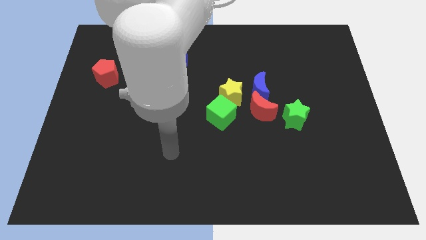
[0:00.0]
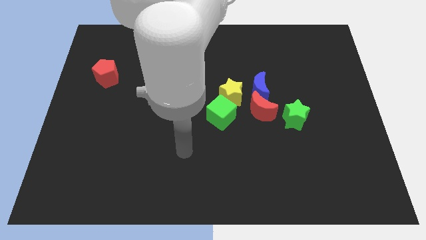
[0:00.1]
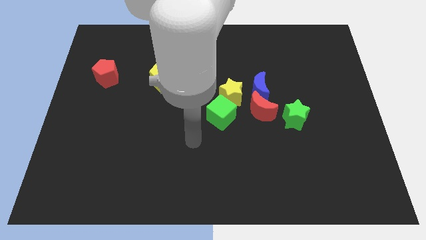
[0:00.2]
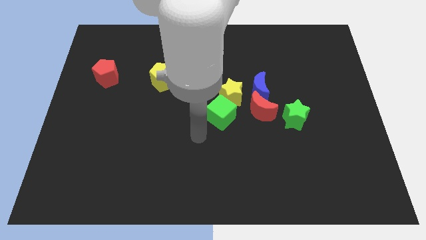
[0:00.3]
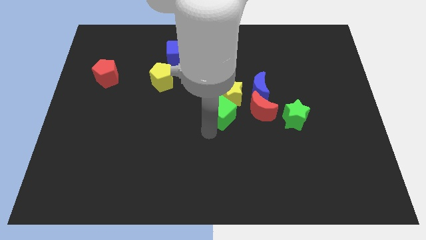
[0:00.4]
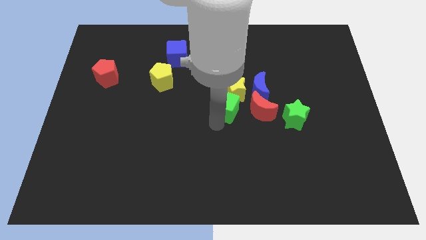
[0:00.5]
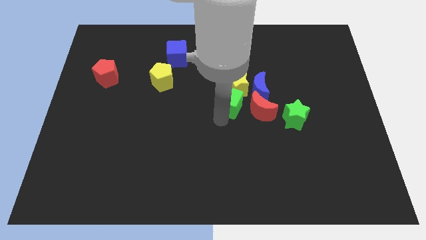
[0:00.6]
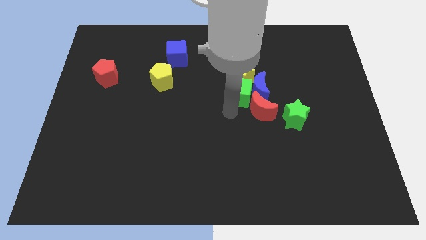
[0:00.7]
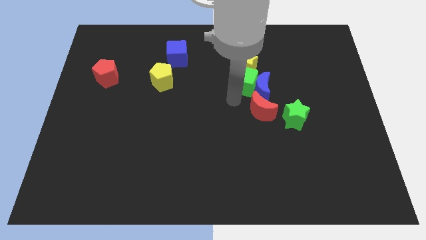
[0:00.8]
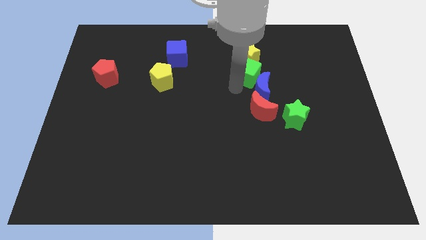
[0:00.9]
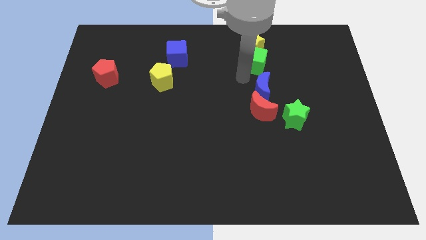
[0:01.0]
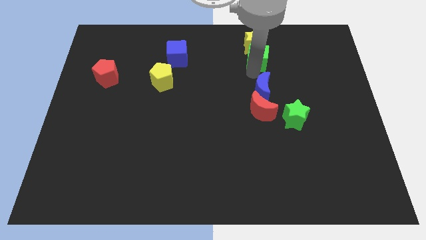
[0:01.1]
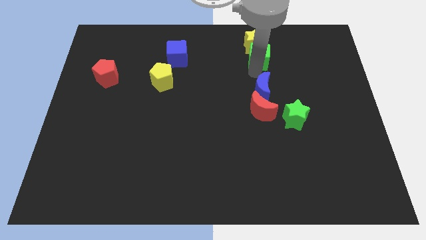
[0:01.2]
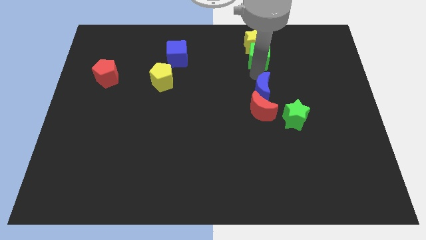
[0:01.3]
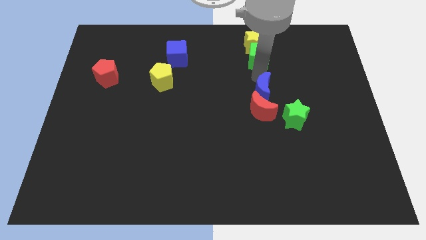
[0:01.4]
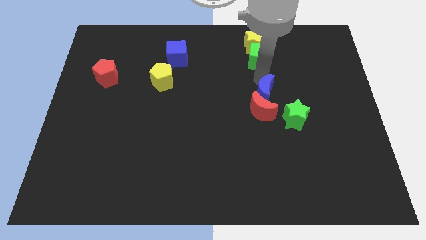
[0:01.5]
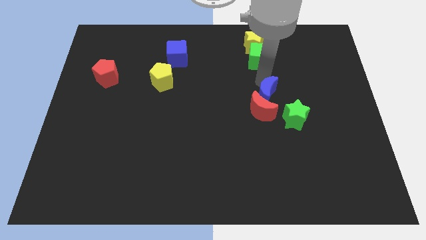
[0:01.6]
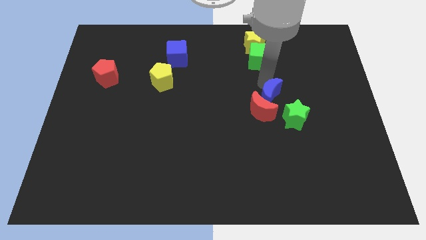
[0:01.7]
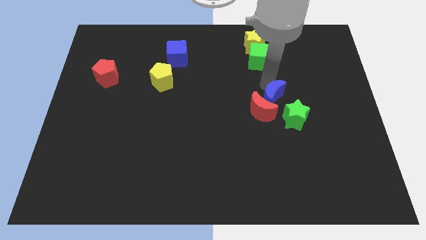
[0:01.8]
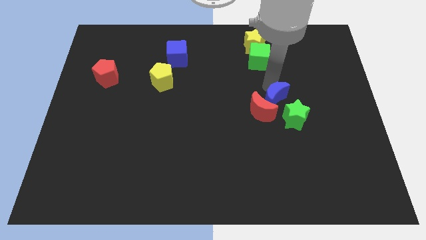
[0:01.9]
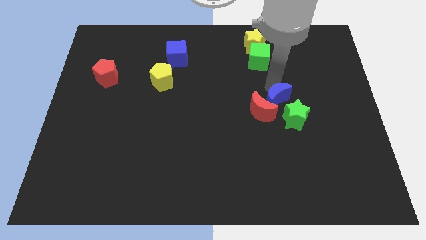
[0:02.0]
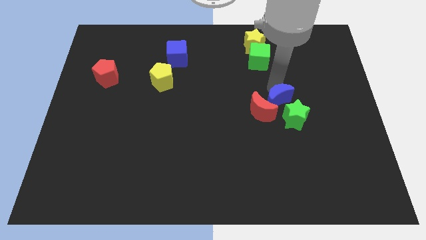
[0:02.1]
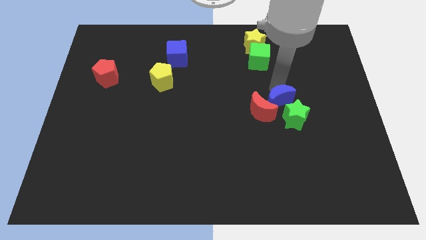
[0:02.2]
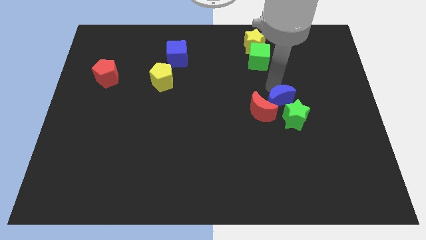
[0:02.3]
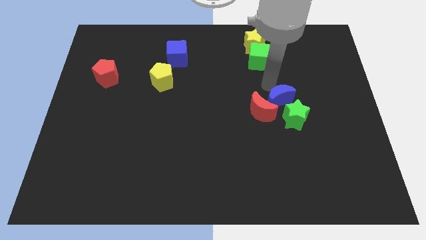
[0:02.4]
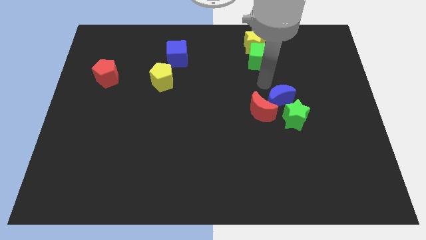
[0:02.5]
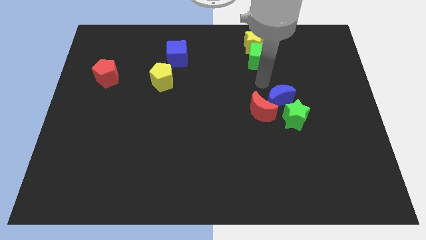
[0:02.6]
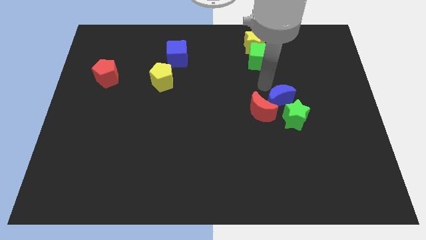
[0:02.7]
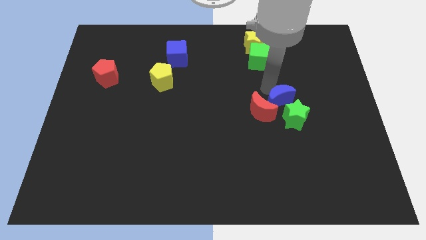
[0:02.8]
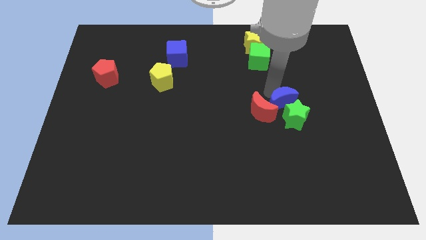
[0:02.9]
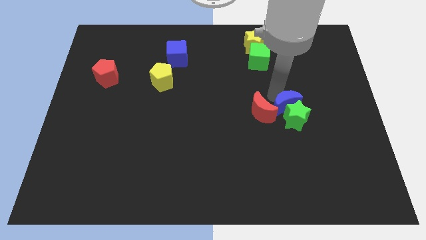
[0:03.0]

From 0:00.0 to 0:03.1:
move the blue moon away from the red moon and yellow star

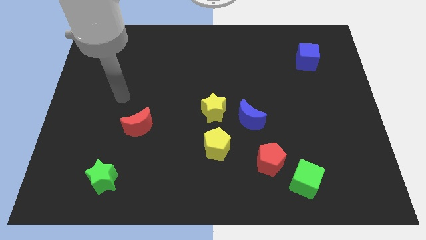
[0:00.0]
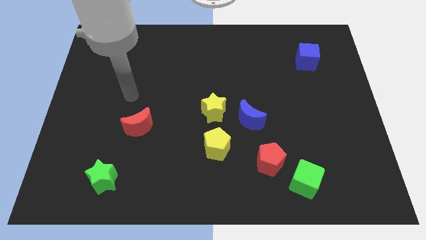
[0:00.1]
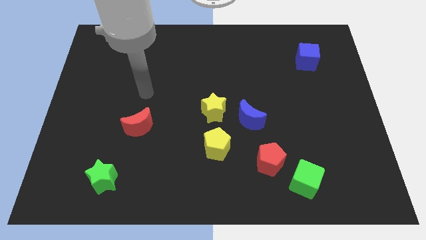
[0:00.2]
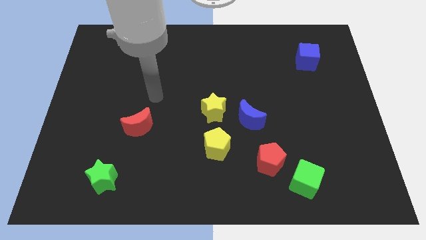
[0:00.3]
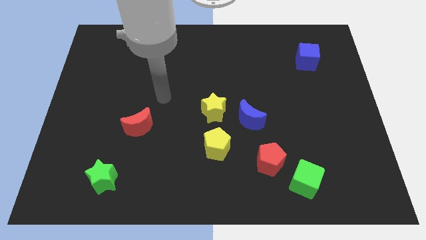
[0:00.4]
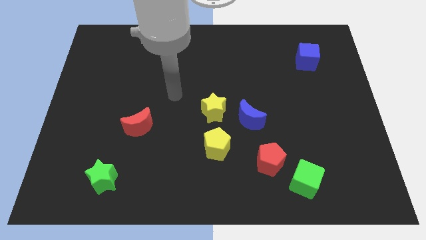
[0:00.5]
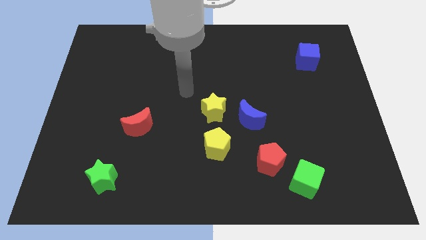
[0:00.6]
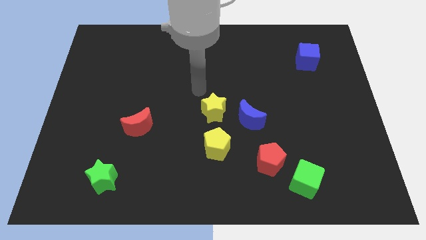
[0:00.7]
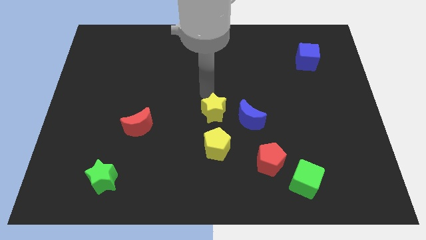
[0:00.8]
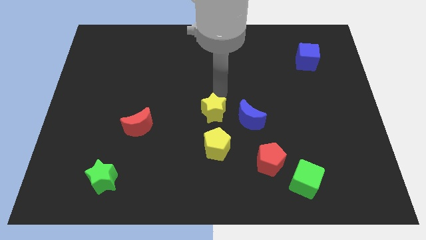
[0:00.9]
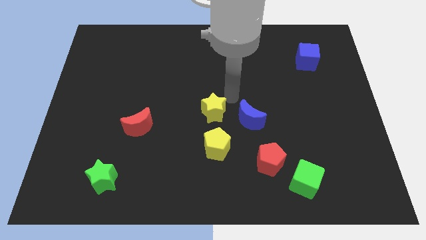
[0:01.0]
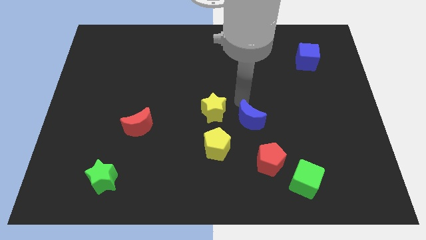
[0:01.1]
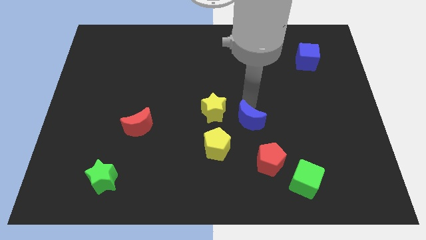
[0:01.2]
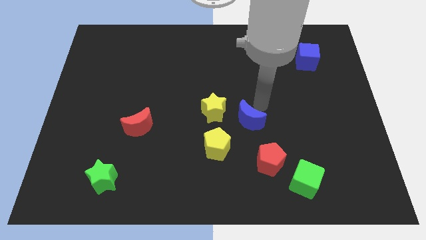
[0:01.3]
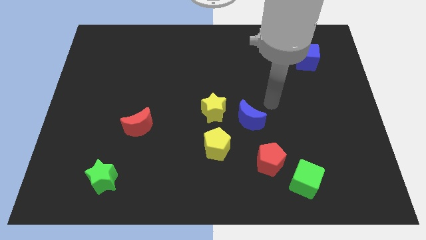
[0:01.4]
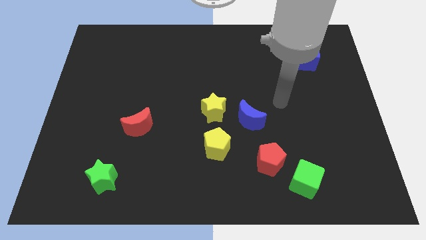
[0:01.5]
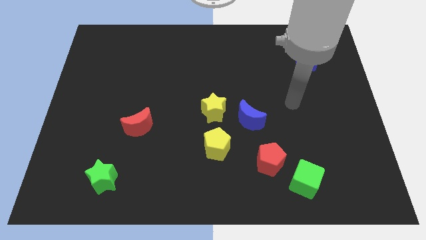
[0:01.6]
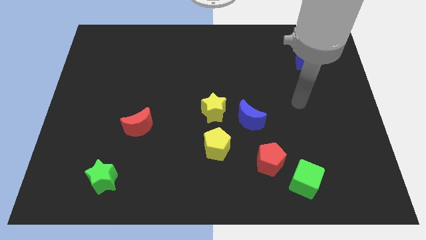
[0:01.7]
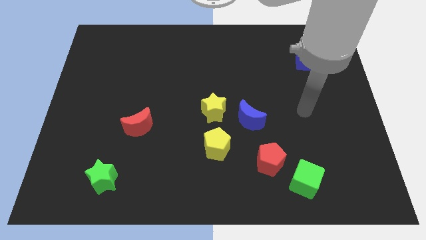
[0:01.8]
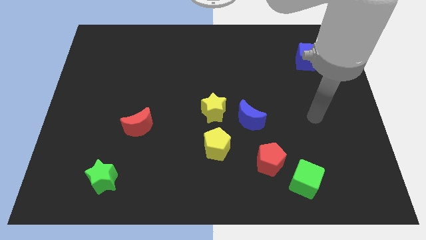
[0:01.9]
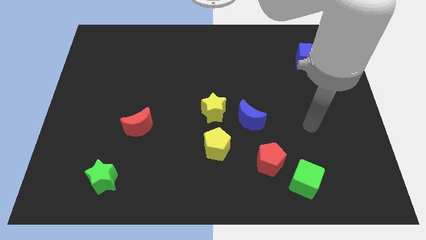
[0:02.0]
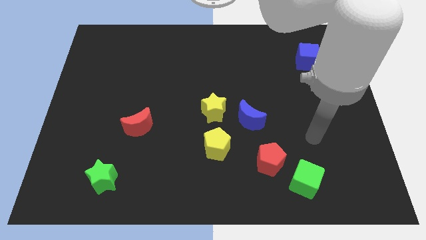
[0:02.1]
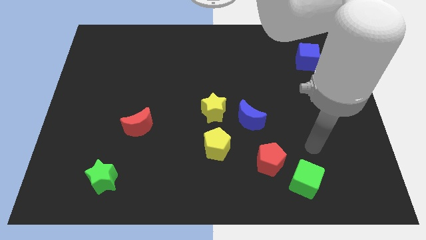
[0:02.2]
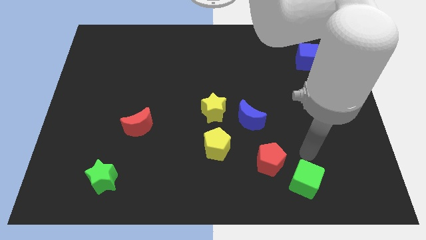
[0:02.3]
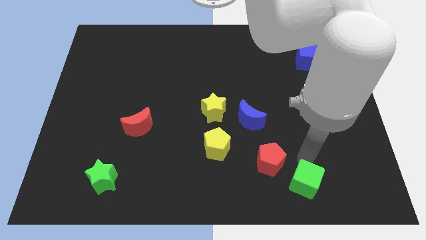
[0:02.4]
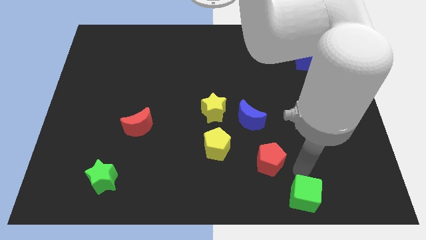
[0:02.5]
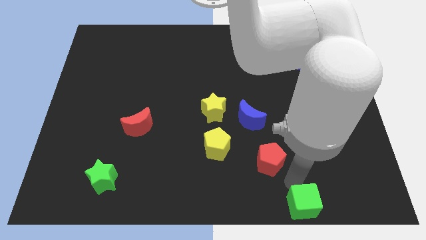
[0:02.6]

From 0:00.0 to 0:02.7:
separate the red pentagon from the green cube

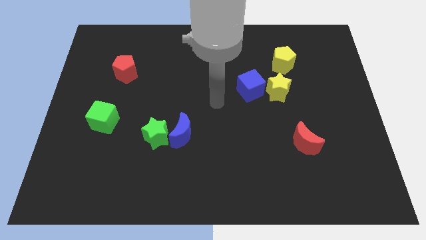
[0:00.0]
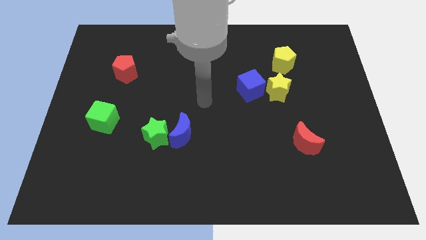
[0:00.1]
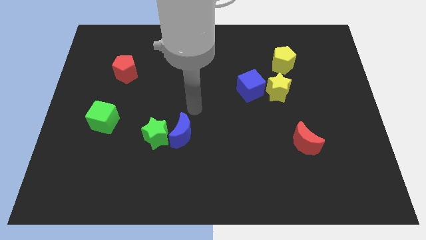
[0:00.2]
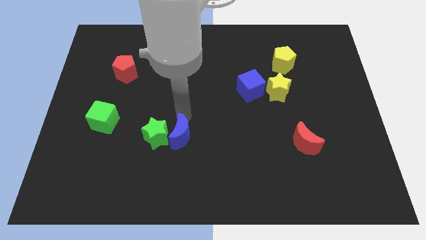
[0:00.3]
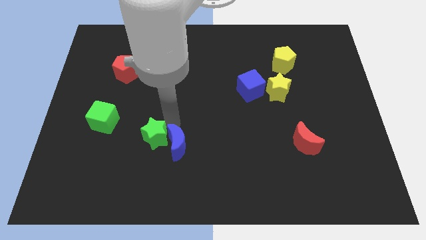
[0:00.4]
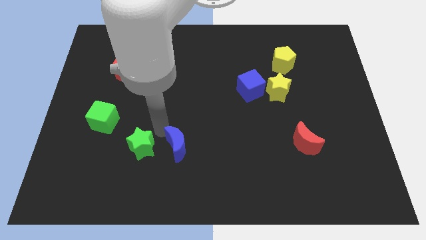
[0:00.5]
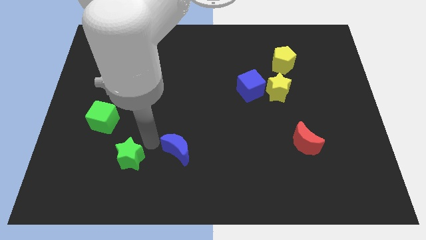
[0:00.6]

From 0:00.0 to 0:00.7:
move the blue moon away from the green star

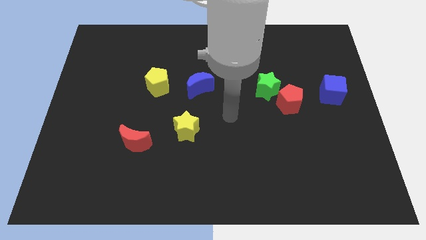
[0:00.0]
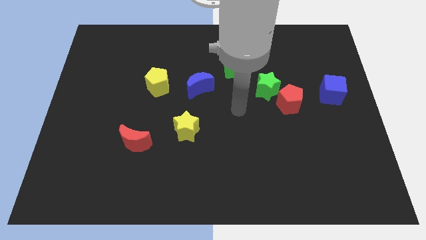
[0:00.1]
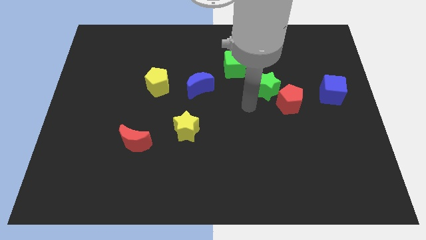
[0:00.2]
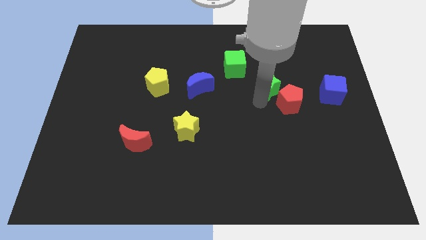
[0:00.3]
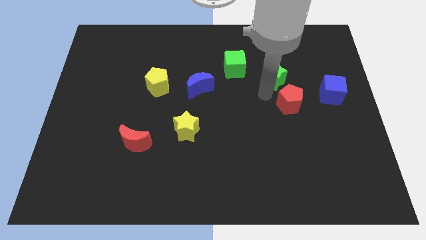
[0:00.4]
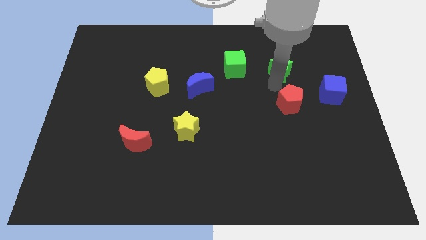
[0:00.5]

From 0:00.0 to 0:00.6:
pull the red pentagon apart from the green star

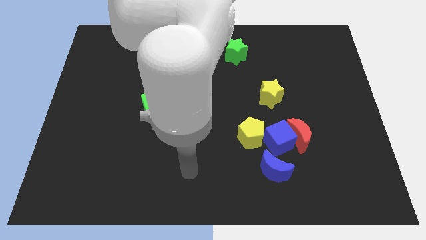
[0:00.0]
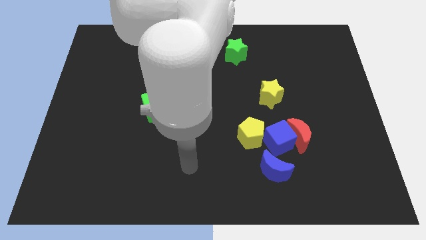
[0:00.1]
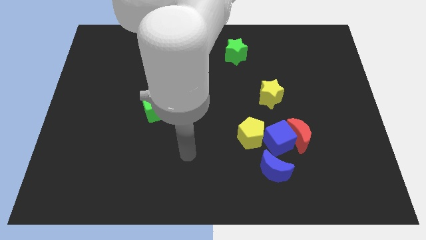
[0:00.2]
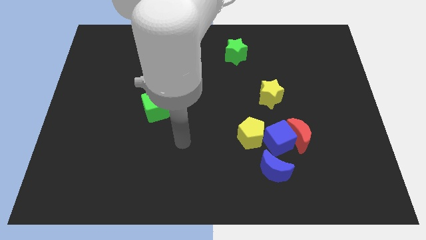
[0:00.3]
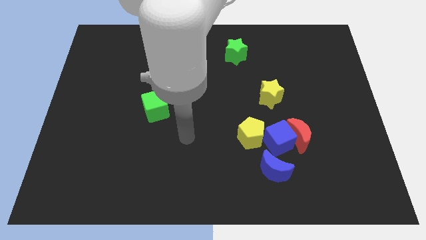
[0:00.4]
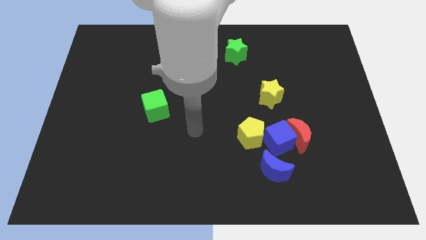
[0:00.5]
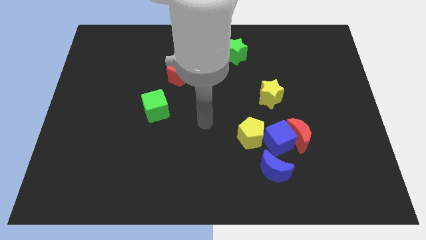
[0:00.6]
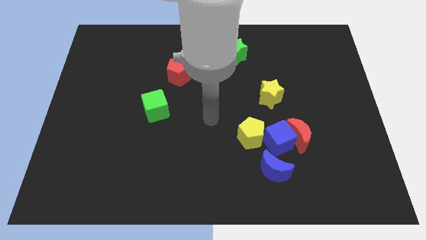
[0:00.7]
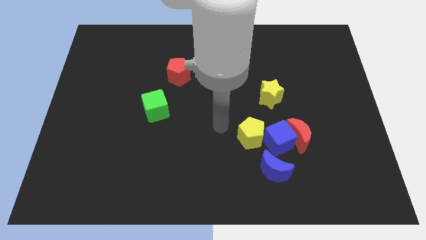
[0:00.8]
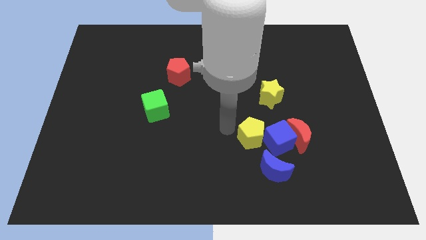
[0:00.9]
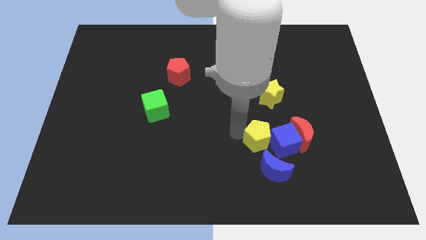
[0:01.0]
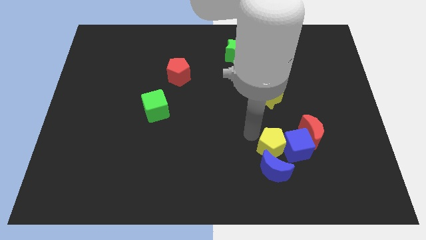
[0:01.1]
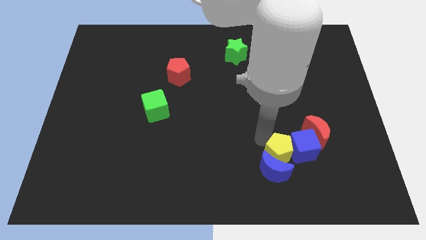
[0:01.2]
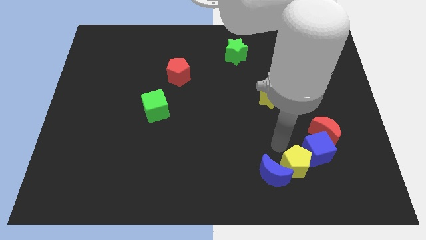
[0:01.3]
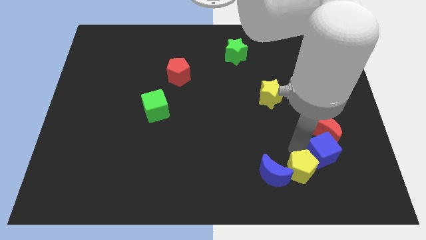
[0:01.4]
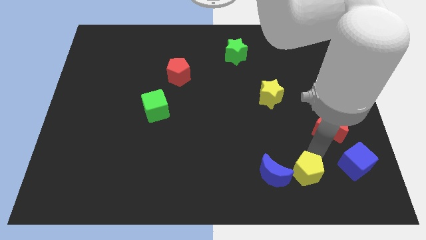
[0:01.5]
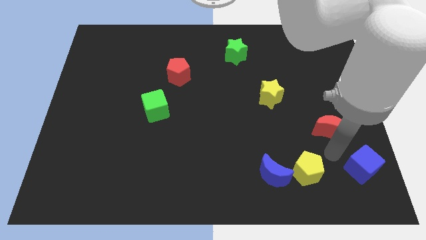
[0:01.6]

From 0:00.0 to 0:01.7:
move the red moon away from the blue cube

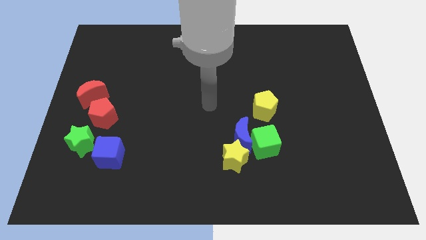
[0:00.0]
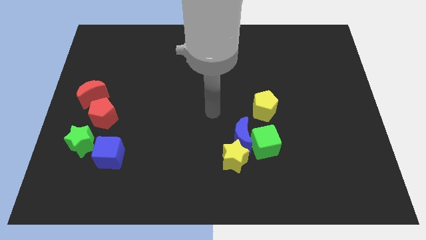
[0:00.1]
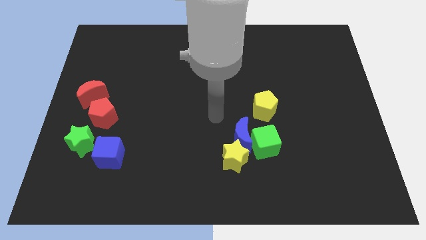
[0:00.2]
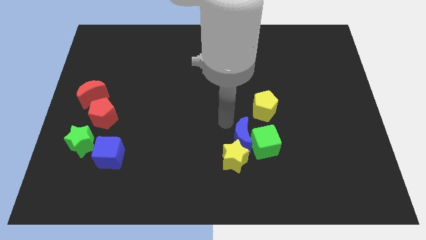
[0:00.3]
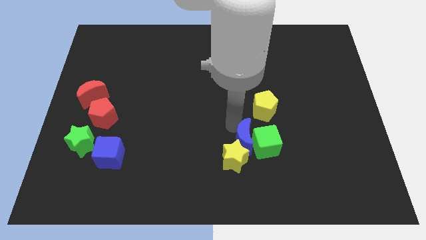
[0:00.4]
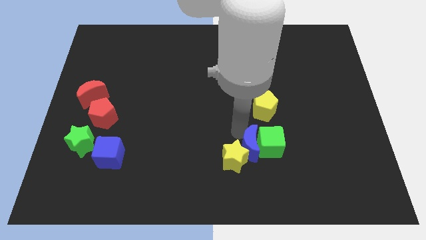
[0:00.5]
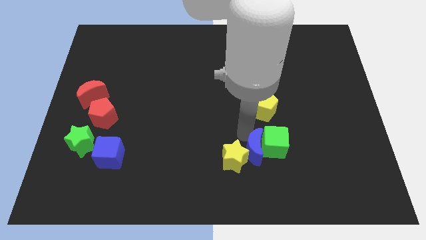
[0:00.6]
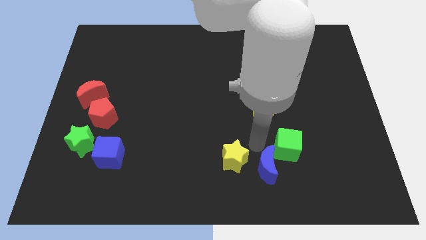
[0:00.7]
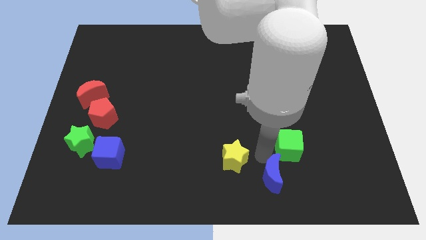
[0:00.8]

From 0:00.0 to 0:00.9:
separate the yellow star from the blue moon and green cube
